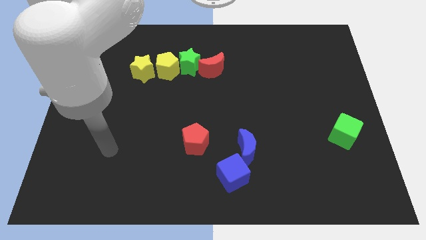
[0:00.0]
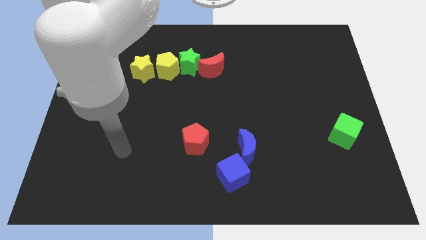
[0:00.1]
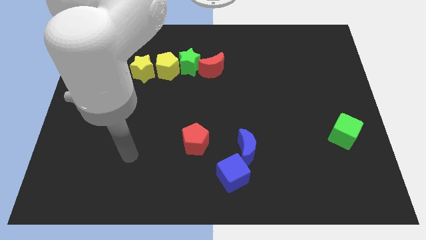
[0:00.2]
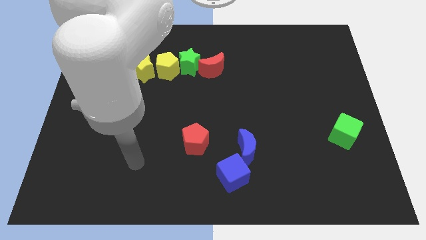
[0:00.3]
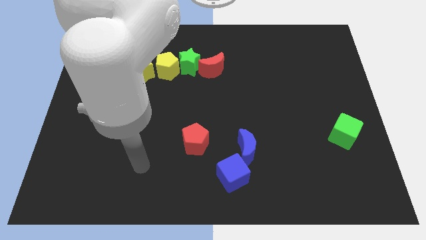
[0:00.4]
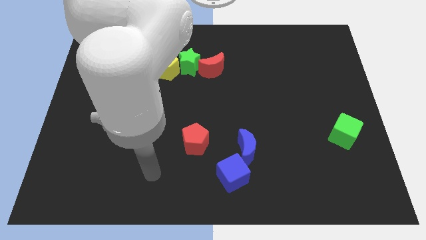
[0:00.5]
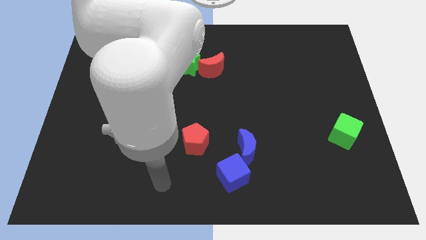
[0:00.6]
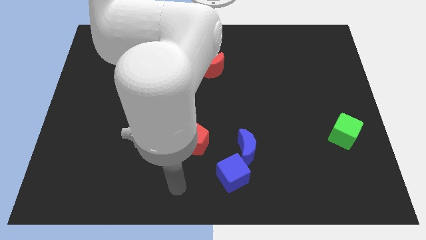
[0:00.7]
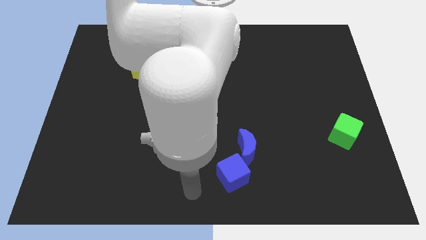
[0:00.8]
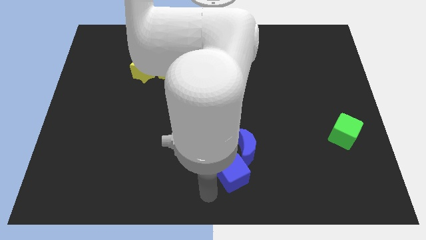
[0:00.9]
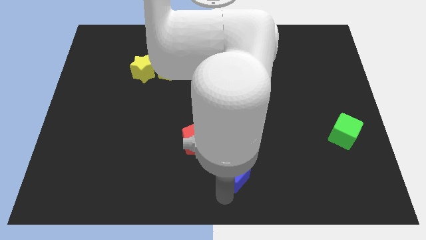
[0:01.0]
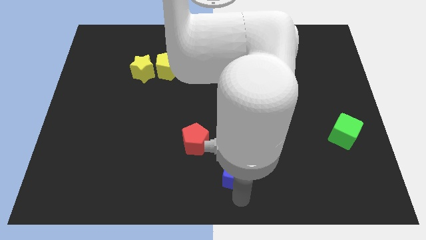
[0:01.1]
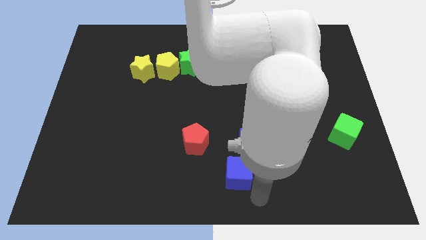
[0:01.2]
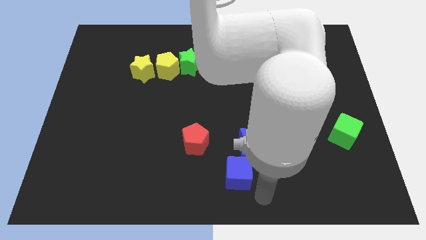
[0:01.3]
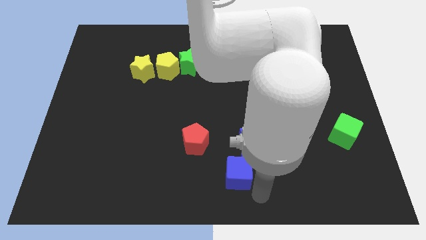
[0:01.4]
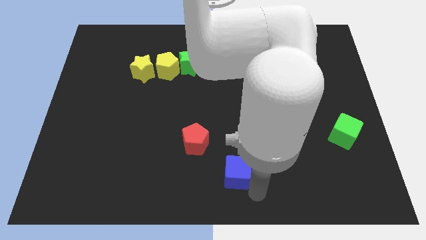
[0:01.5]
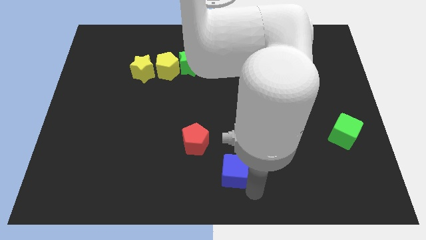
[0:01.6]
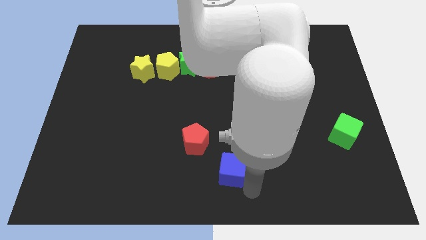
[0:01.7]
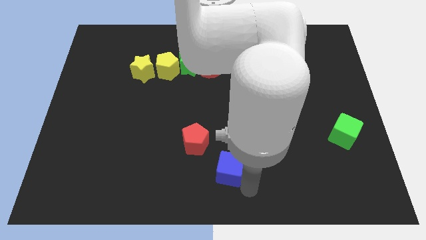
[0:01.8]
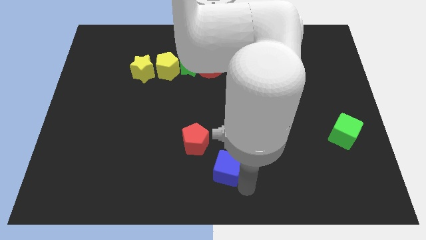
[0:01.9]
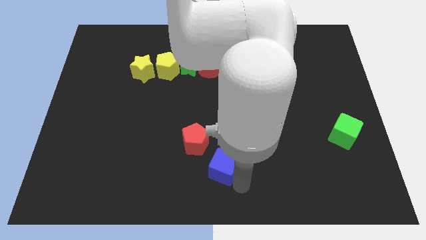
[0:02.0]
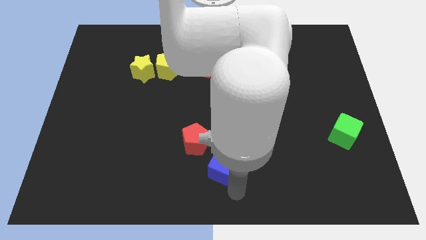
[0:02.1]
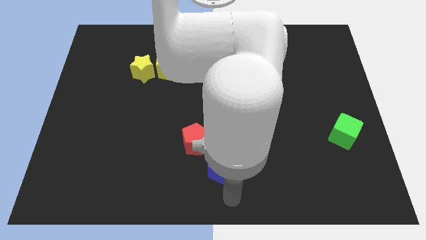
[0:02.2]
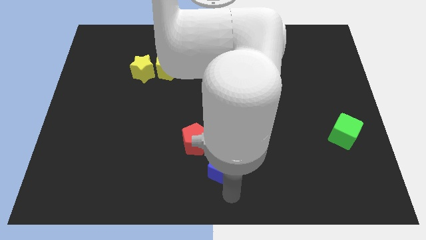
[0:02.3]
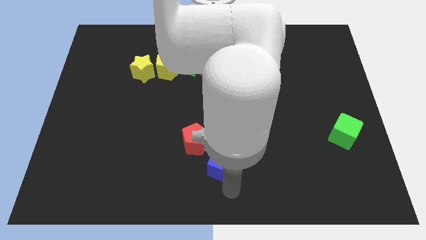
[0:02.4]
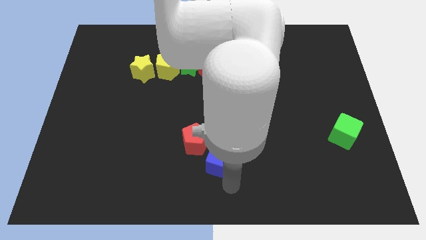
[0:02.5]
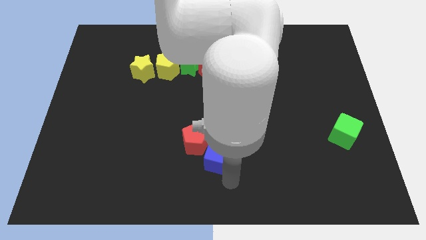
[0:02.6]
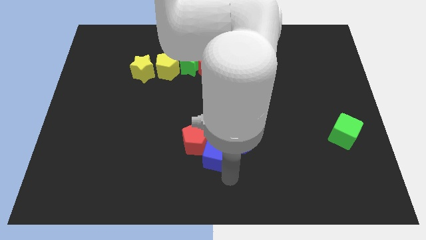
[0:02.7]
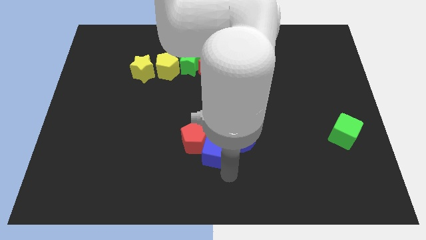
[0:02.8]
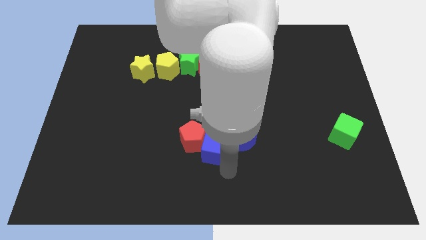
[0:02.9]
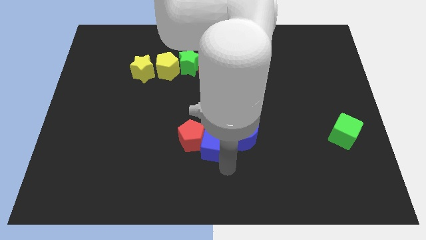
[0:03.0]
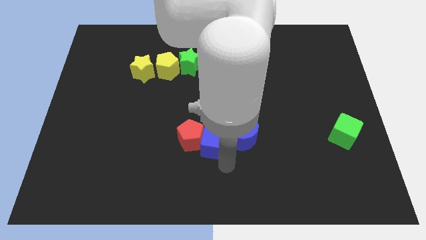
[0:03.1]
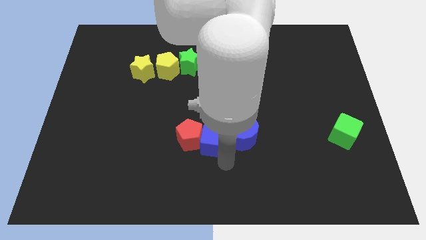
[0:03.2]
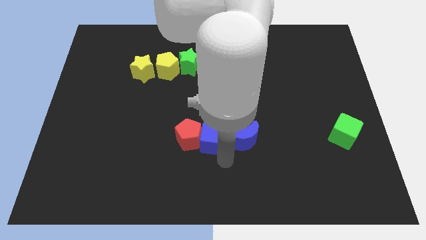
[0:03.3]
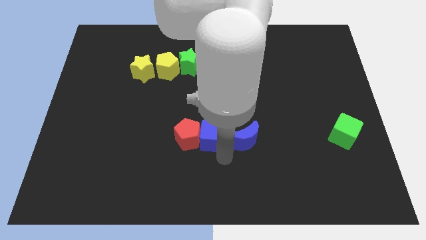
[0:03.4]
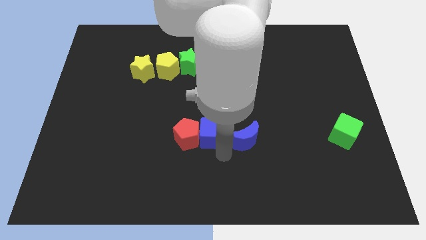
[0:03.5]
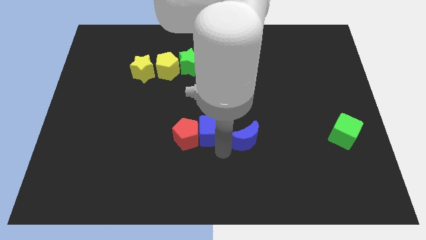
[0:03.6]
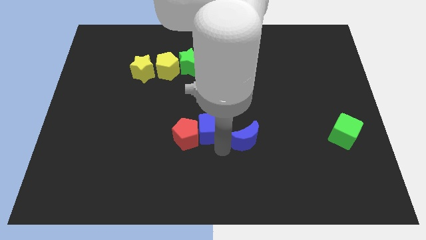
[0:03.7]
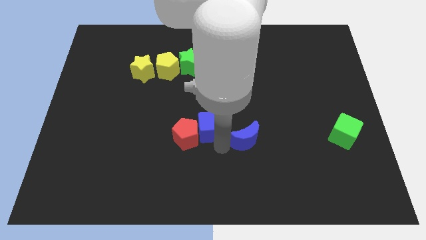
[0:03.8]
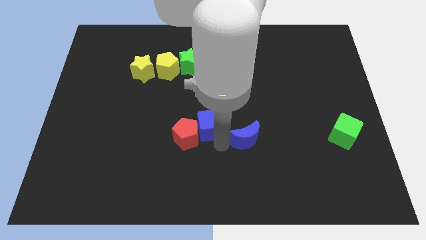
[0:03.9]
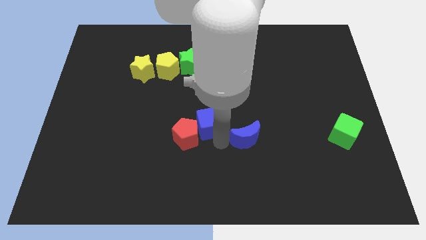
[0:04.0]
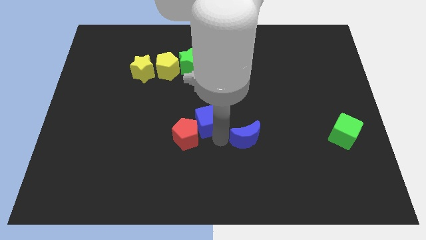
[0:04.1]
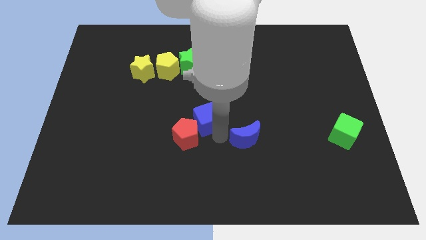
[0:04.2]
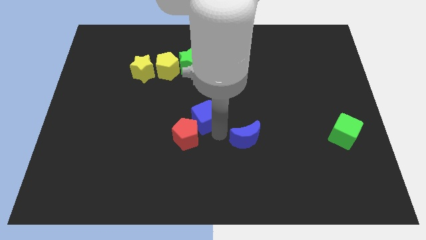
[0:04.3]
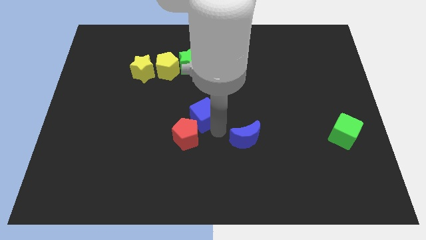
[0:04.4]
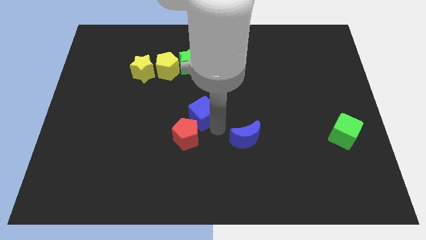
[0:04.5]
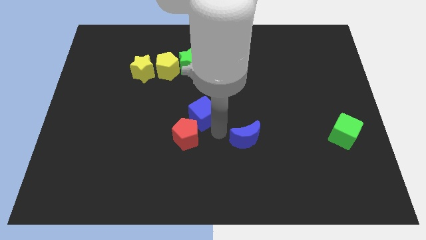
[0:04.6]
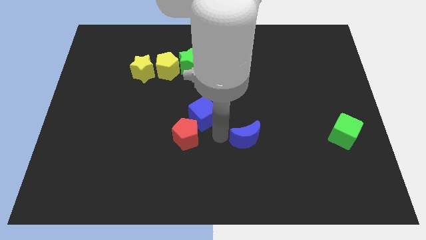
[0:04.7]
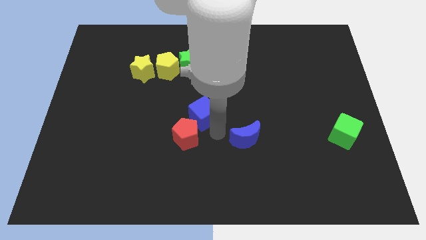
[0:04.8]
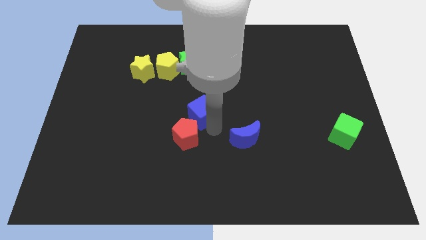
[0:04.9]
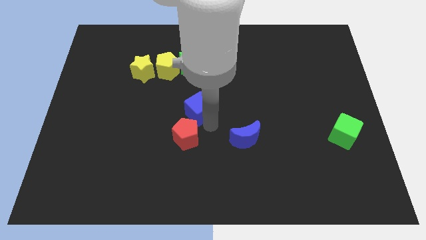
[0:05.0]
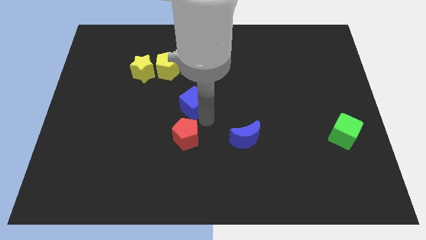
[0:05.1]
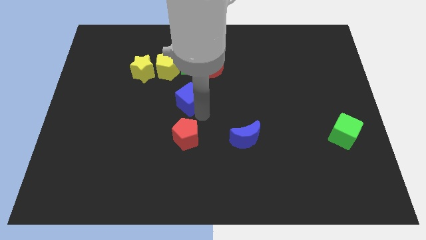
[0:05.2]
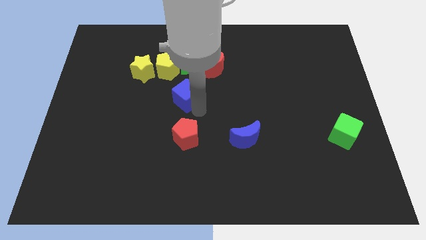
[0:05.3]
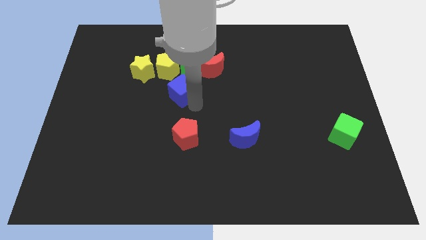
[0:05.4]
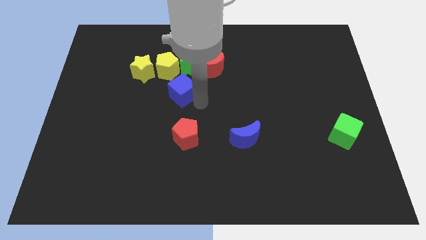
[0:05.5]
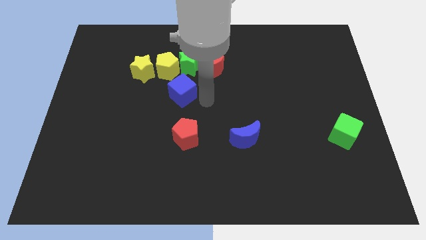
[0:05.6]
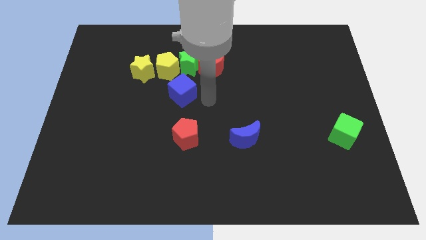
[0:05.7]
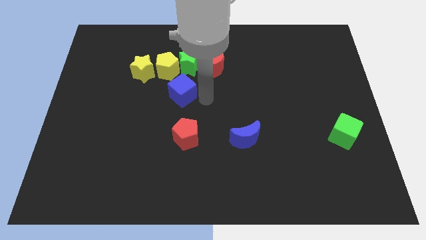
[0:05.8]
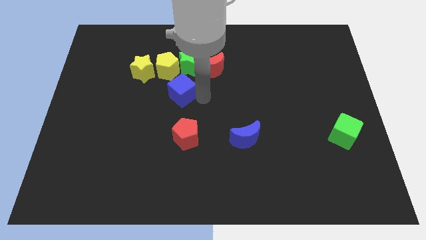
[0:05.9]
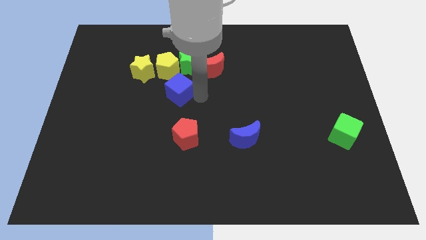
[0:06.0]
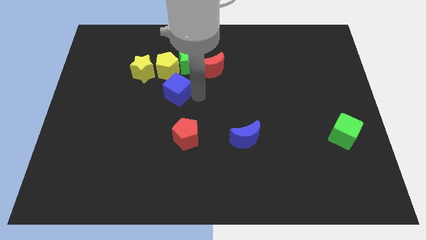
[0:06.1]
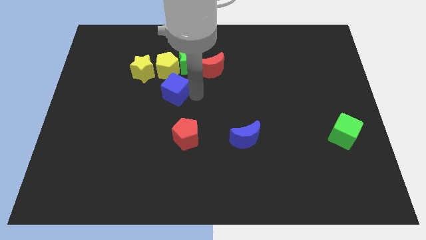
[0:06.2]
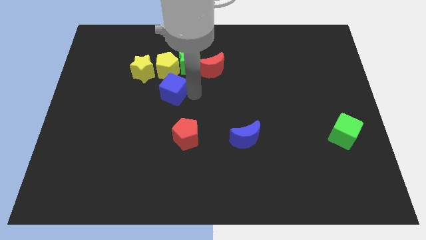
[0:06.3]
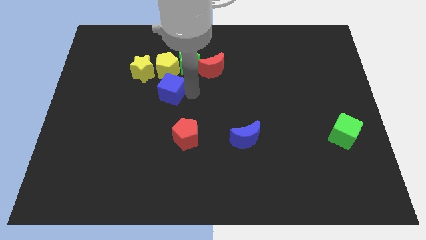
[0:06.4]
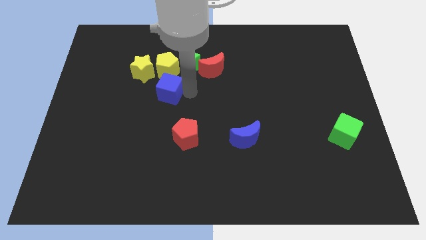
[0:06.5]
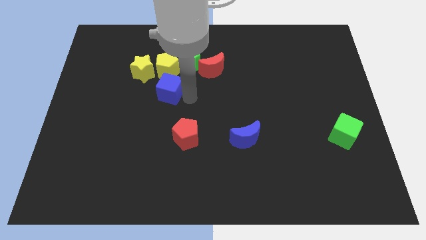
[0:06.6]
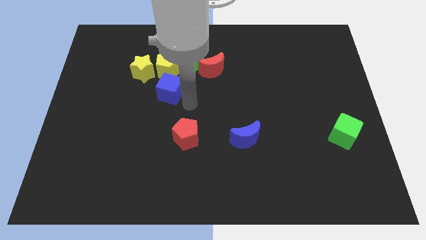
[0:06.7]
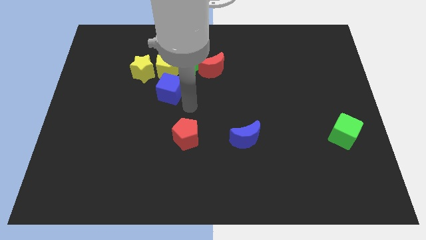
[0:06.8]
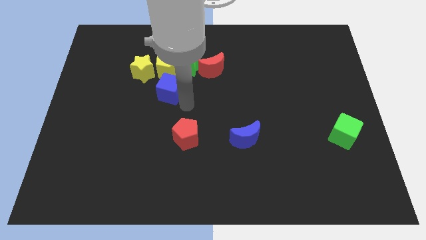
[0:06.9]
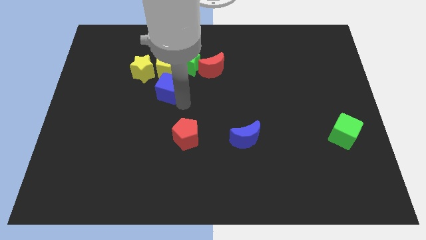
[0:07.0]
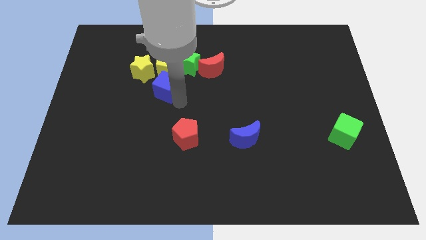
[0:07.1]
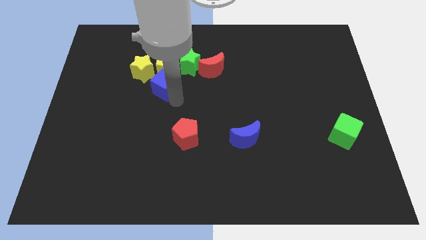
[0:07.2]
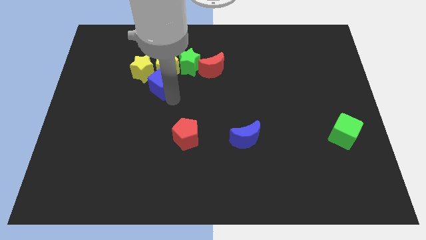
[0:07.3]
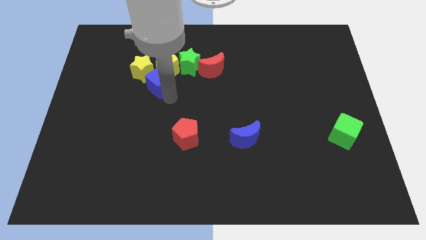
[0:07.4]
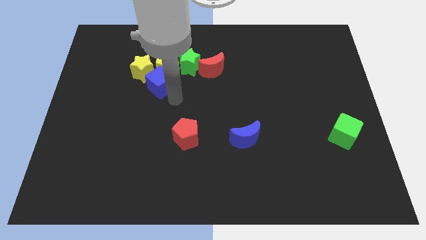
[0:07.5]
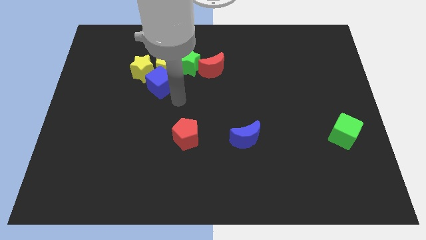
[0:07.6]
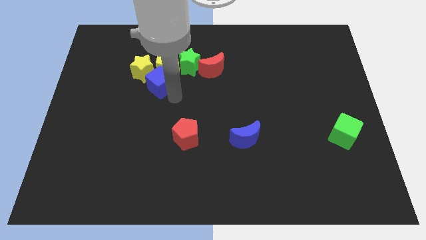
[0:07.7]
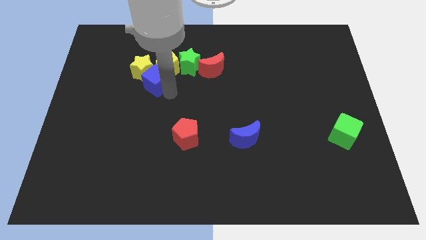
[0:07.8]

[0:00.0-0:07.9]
push the blue cube next to the yellow star
